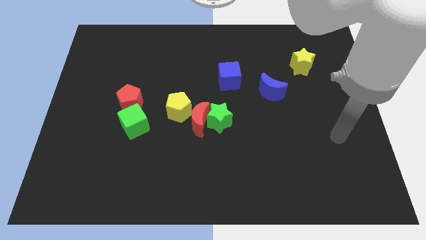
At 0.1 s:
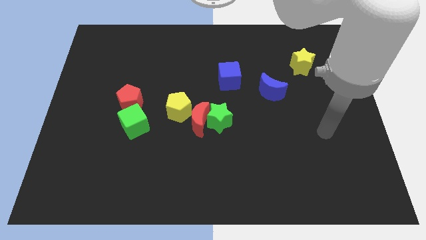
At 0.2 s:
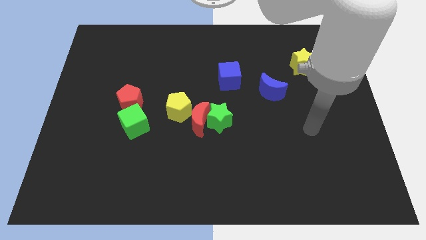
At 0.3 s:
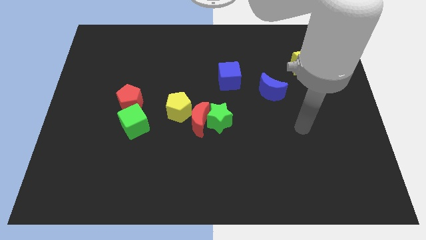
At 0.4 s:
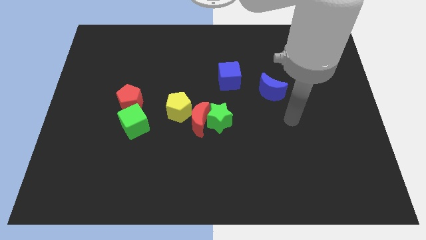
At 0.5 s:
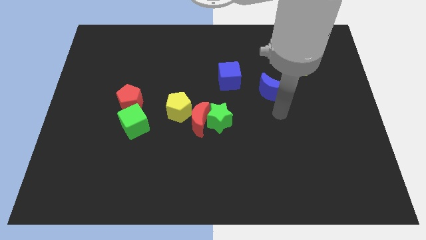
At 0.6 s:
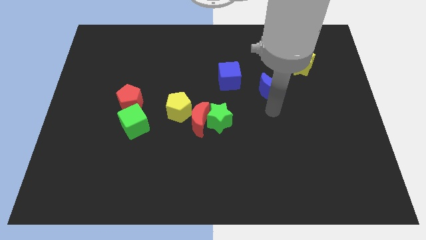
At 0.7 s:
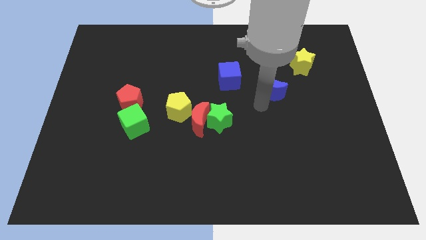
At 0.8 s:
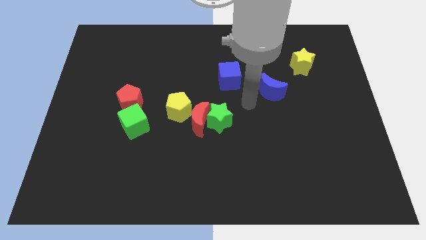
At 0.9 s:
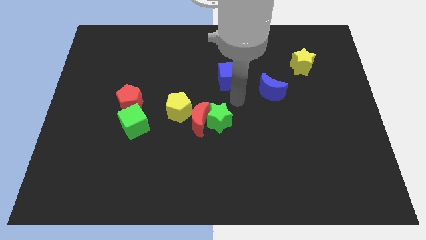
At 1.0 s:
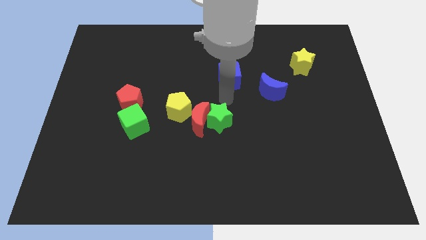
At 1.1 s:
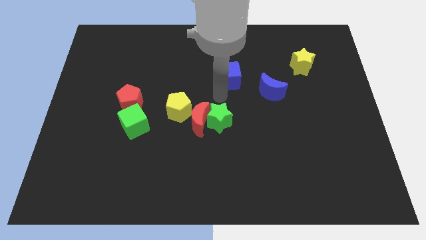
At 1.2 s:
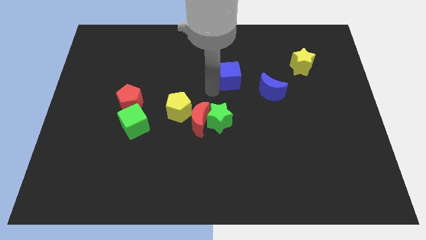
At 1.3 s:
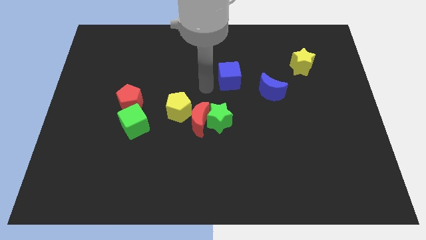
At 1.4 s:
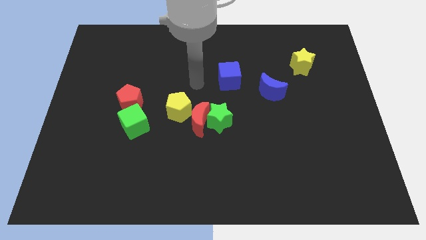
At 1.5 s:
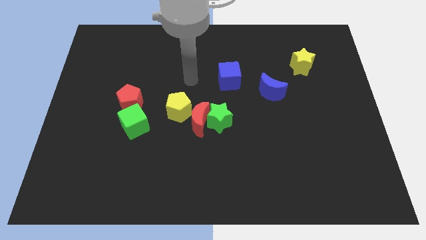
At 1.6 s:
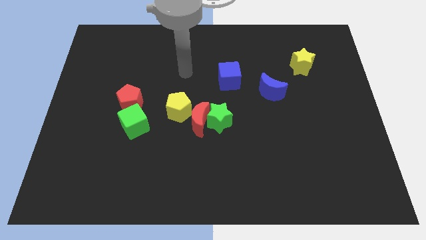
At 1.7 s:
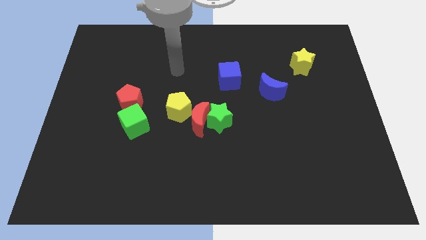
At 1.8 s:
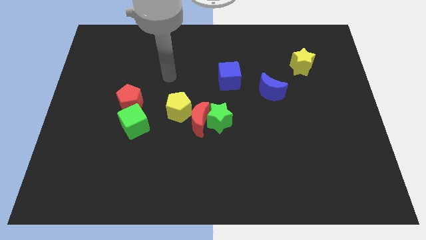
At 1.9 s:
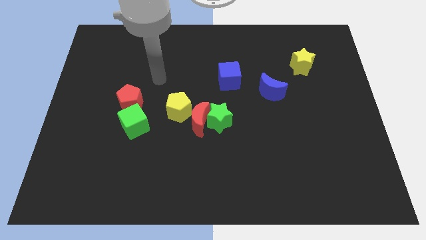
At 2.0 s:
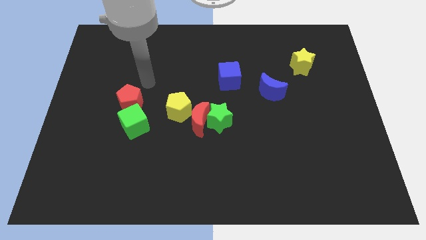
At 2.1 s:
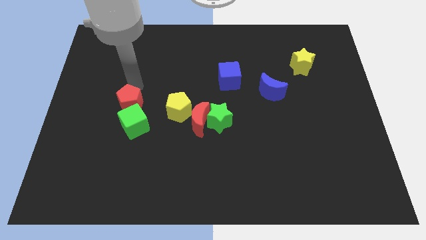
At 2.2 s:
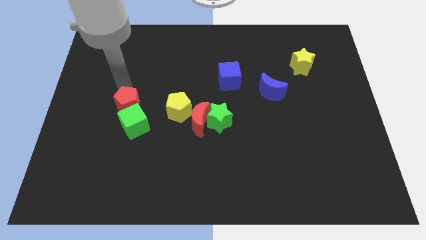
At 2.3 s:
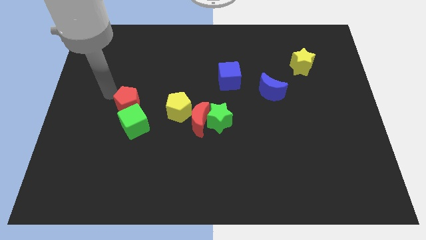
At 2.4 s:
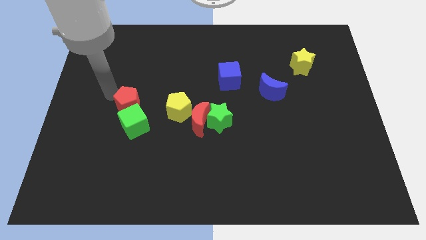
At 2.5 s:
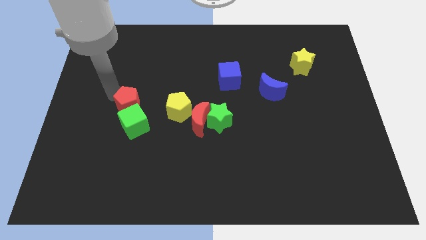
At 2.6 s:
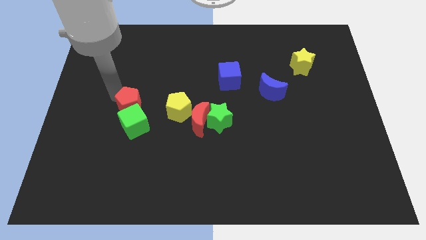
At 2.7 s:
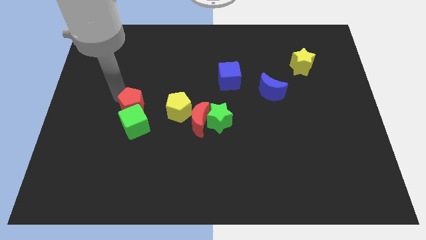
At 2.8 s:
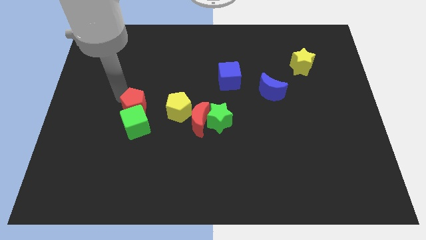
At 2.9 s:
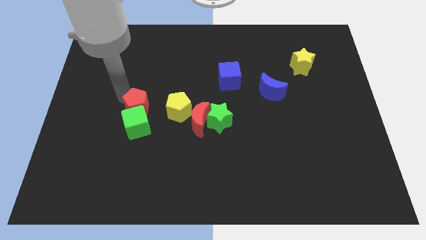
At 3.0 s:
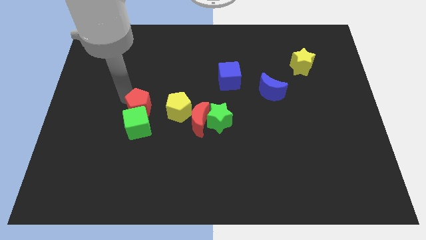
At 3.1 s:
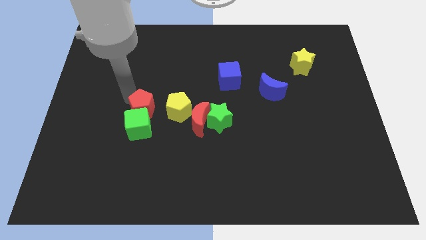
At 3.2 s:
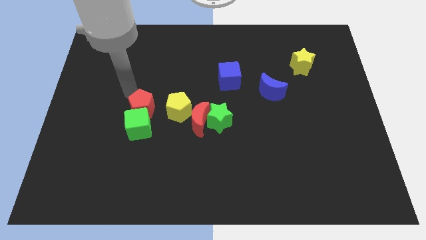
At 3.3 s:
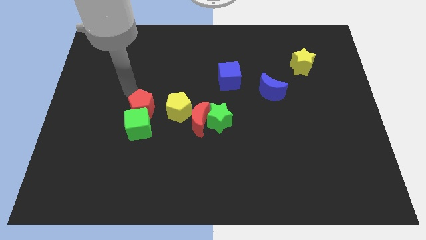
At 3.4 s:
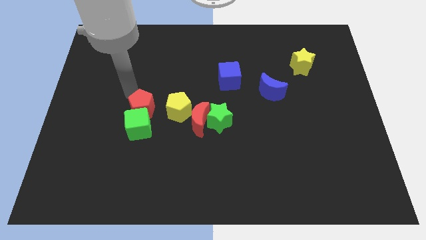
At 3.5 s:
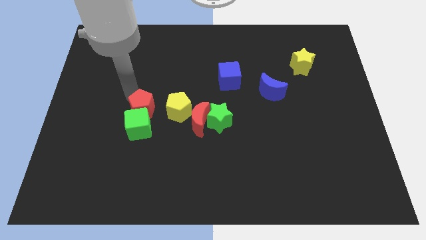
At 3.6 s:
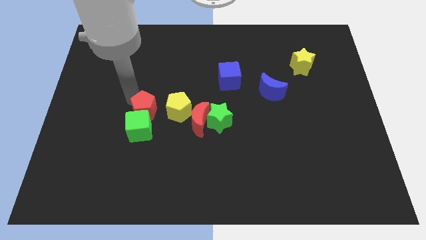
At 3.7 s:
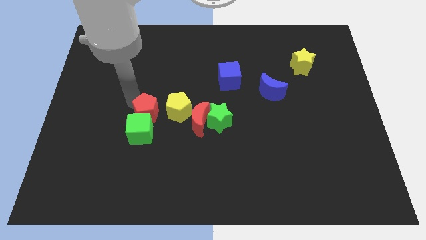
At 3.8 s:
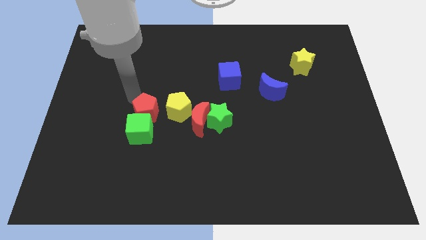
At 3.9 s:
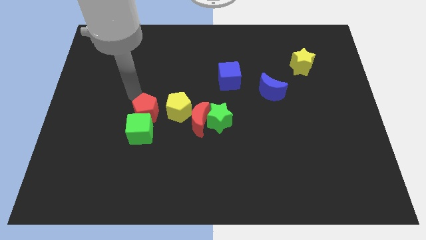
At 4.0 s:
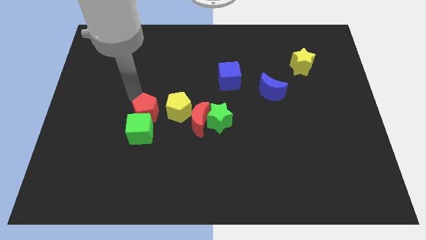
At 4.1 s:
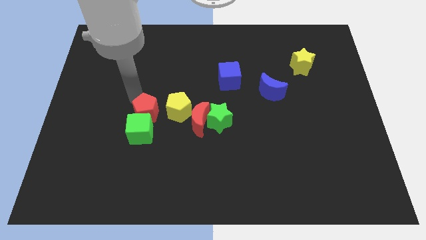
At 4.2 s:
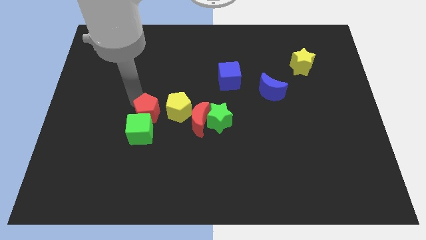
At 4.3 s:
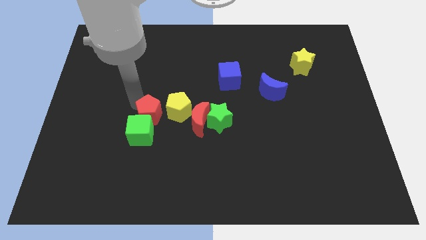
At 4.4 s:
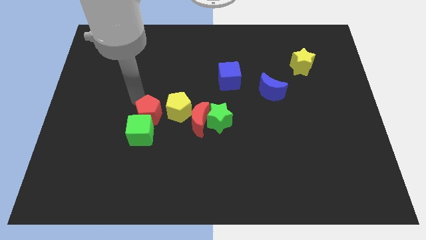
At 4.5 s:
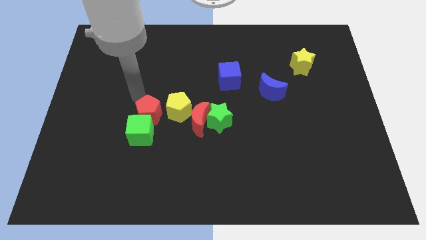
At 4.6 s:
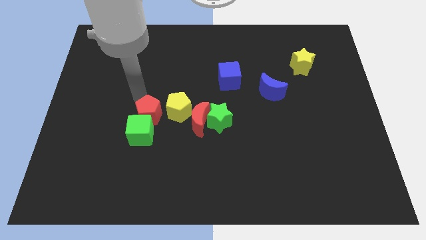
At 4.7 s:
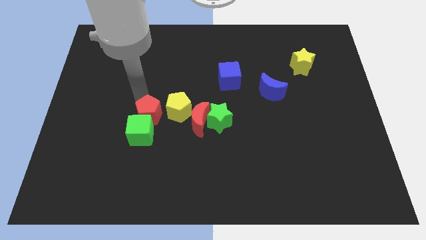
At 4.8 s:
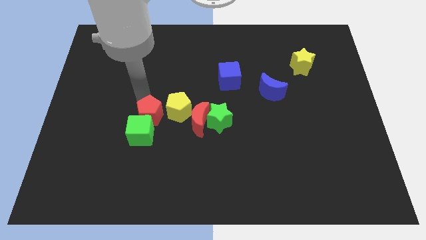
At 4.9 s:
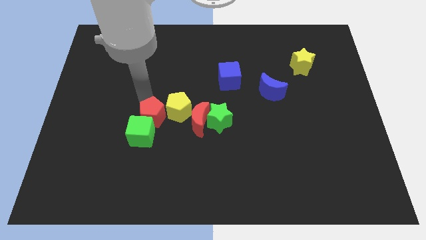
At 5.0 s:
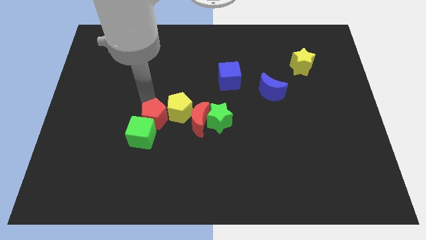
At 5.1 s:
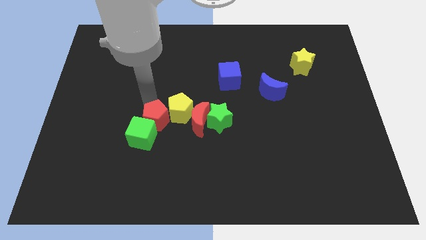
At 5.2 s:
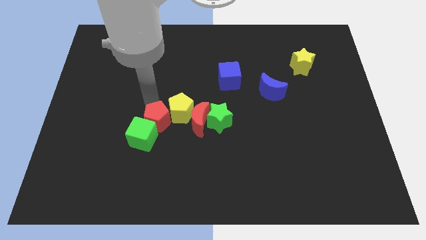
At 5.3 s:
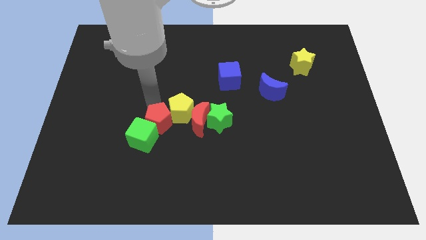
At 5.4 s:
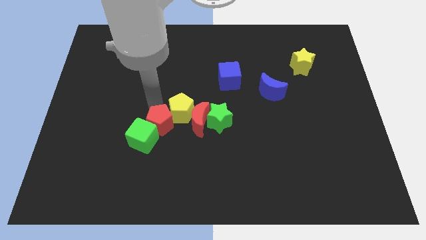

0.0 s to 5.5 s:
slide the red pentagon to the bottom of the yellow pentagon
